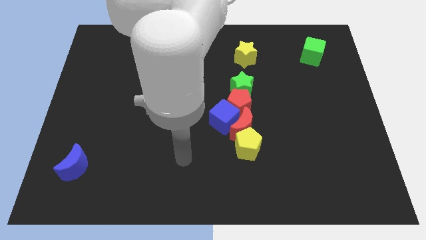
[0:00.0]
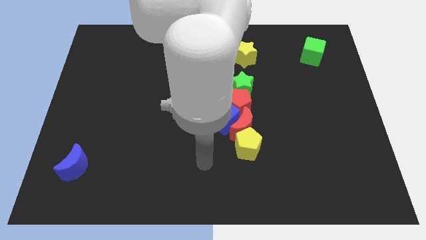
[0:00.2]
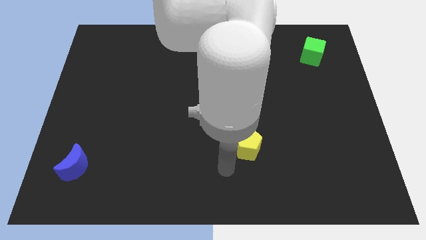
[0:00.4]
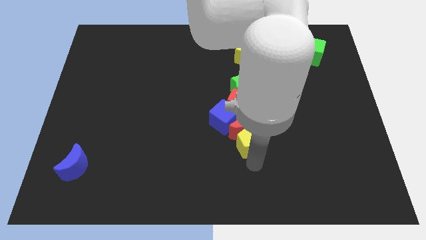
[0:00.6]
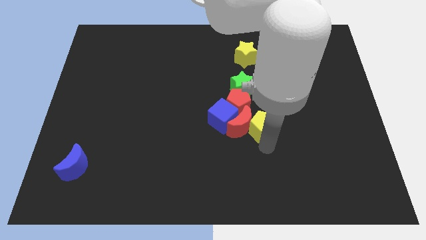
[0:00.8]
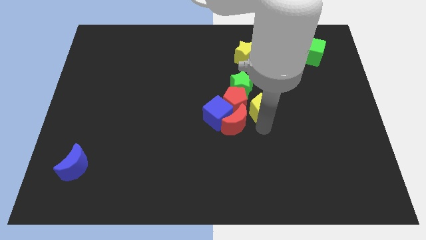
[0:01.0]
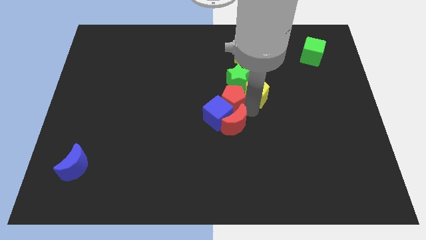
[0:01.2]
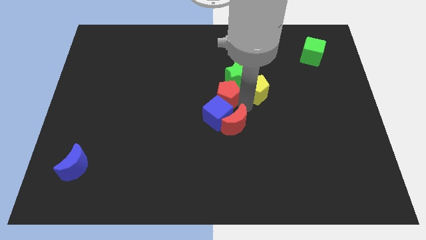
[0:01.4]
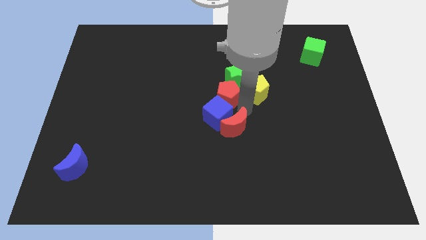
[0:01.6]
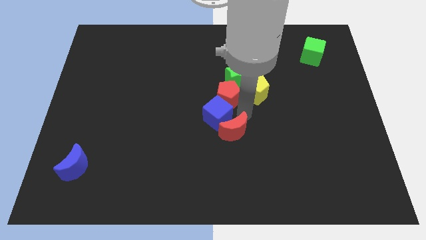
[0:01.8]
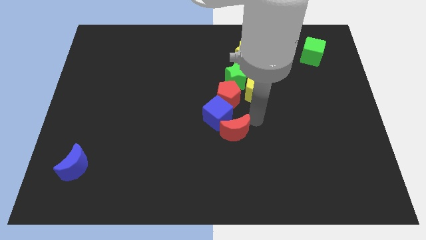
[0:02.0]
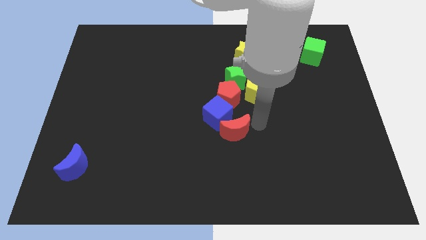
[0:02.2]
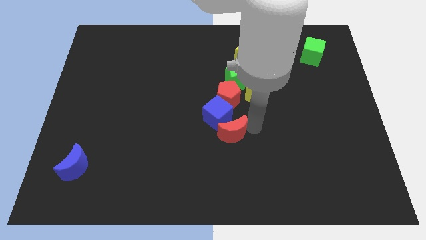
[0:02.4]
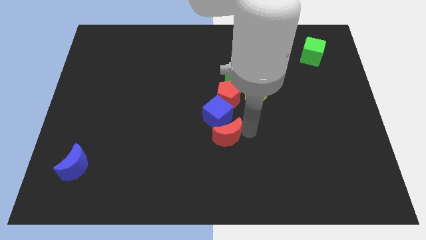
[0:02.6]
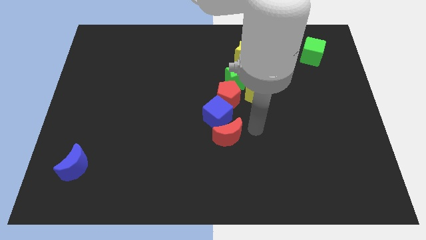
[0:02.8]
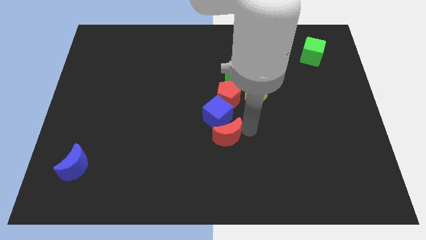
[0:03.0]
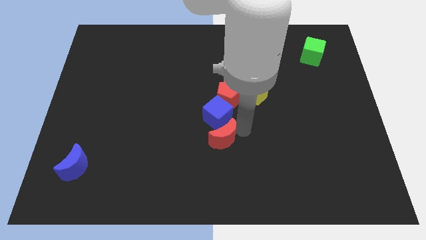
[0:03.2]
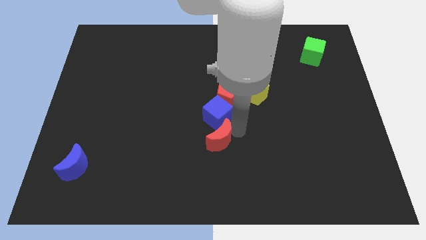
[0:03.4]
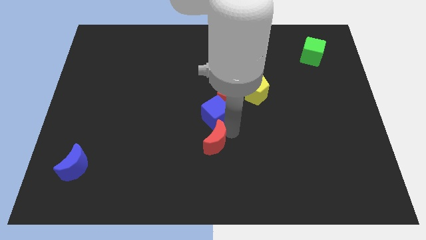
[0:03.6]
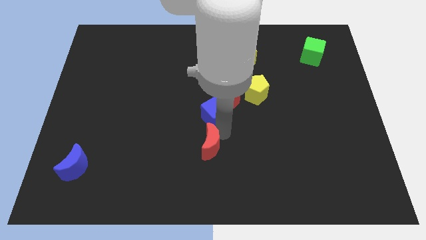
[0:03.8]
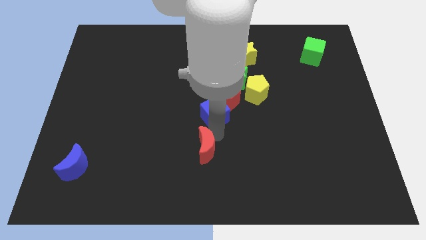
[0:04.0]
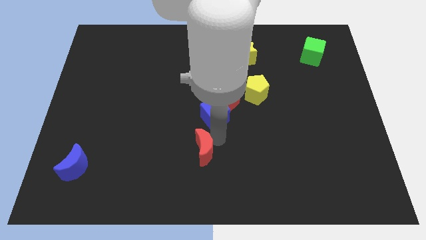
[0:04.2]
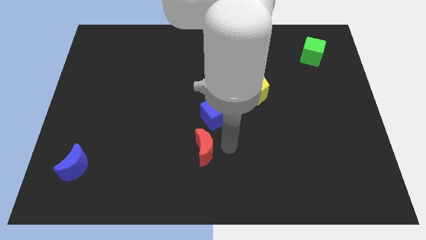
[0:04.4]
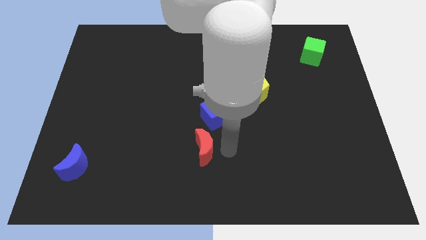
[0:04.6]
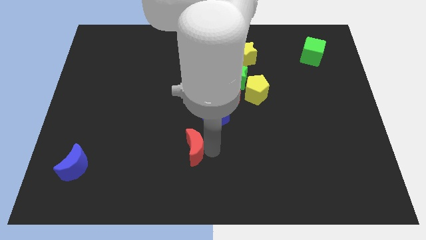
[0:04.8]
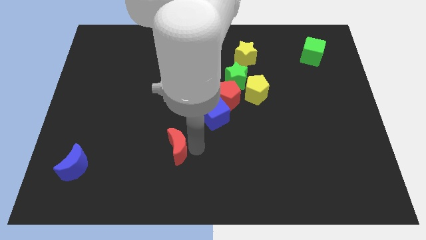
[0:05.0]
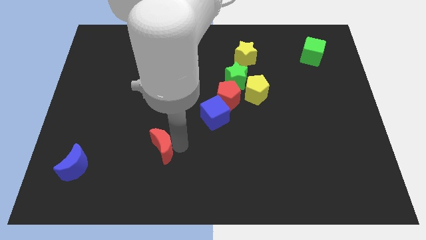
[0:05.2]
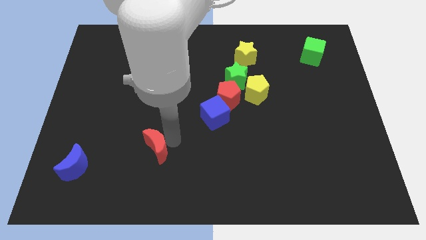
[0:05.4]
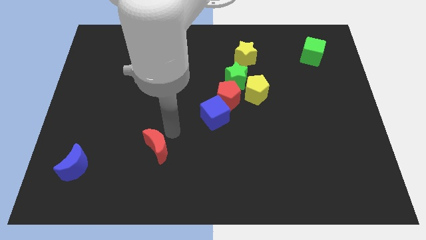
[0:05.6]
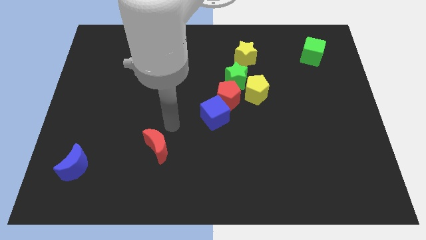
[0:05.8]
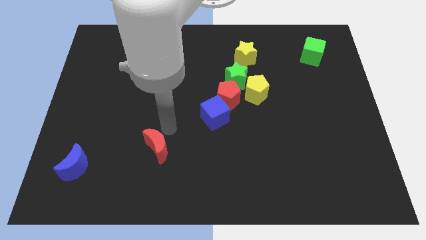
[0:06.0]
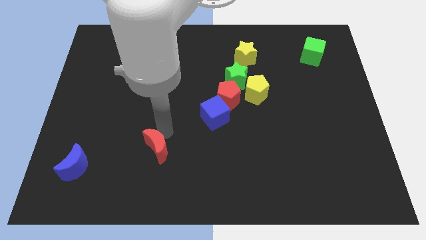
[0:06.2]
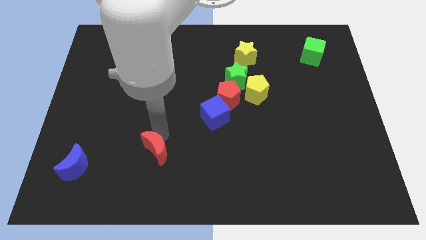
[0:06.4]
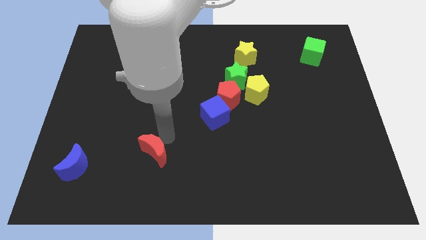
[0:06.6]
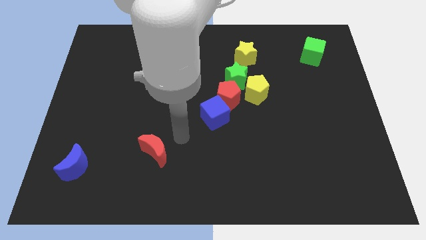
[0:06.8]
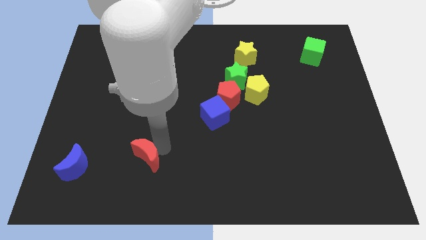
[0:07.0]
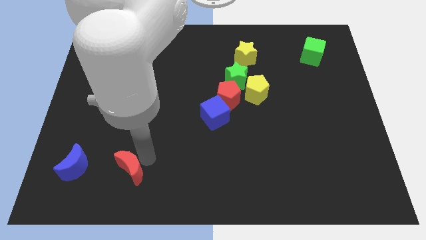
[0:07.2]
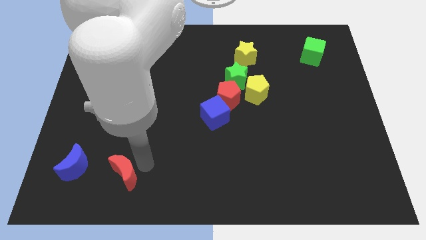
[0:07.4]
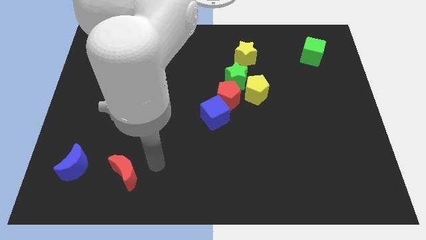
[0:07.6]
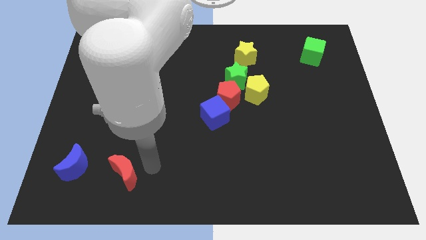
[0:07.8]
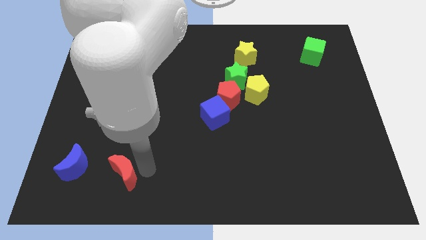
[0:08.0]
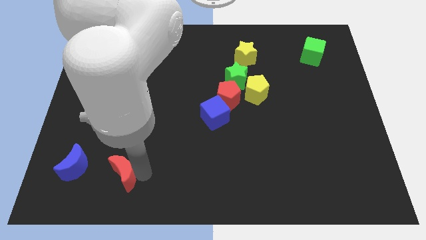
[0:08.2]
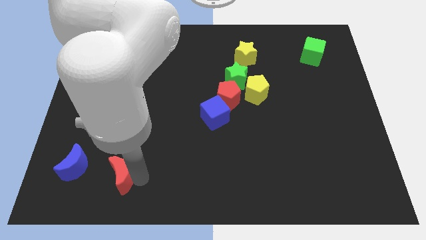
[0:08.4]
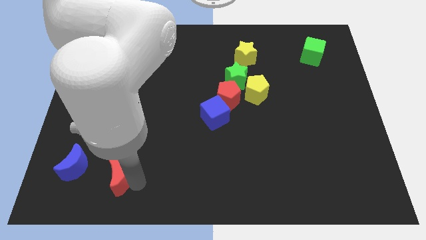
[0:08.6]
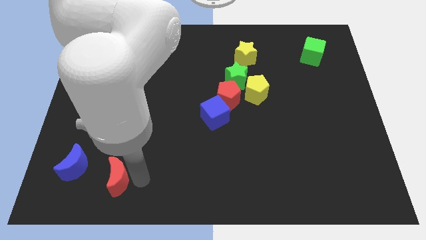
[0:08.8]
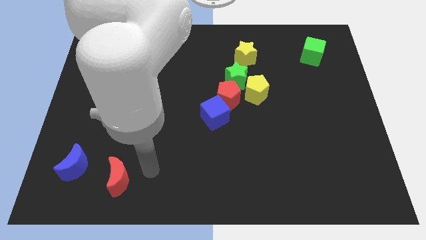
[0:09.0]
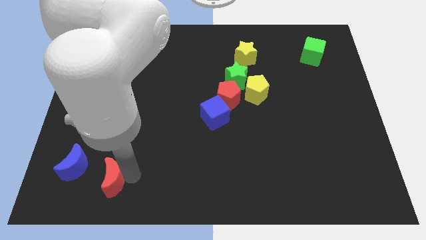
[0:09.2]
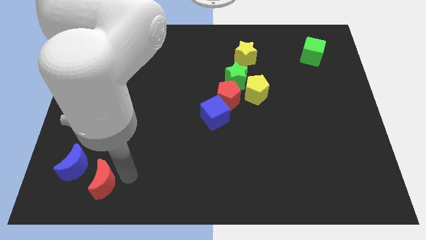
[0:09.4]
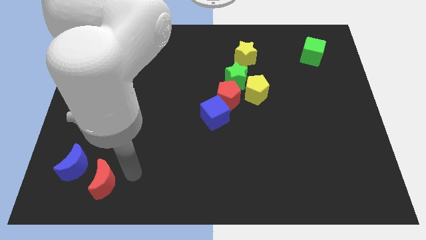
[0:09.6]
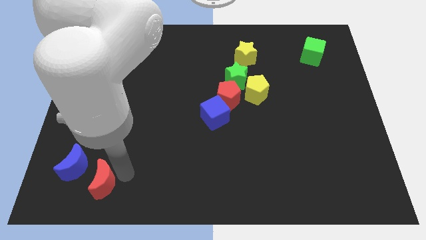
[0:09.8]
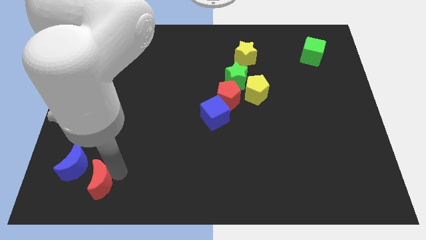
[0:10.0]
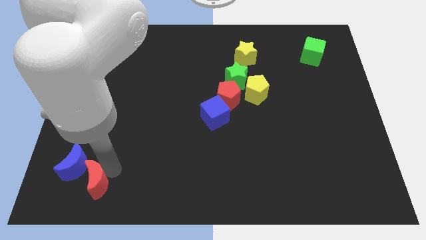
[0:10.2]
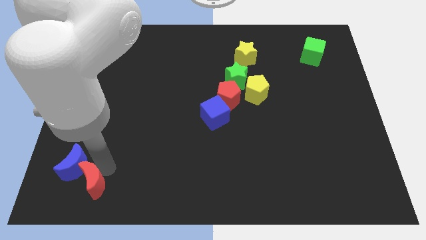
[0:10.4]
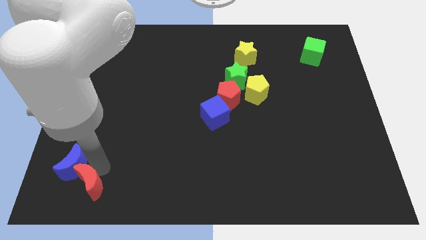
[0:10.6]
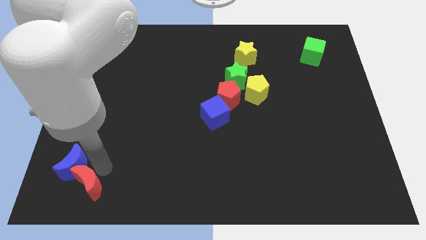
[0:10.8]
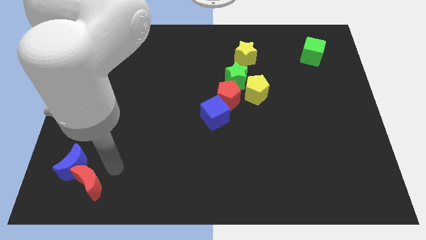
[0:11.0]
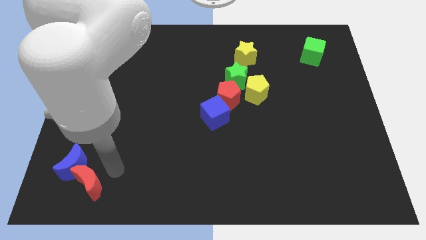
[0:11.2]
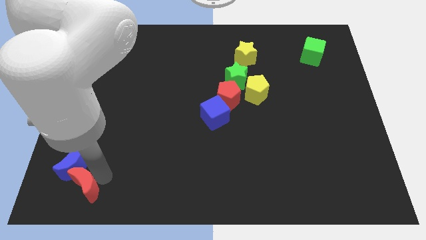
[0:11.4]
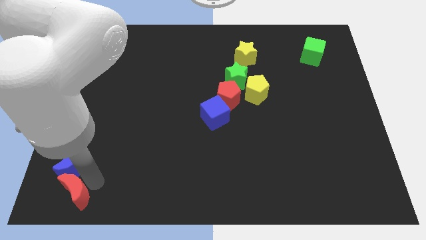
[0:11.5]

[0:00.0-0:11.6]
slide the red moon to the bottom left of the board
